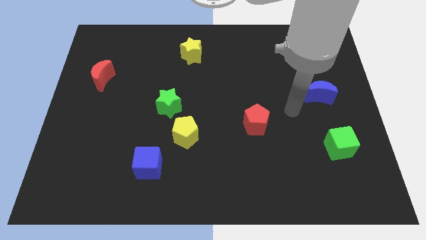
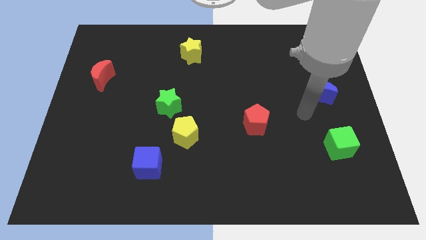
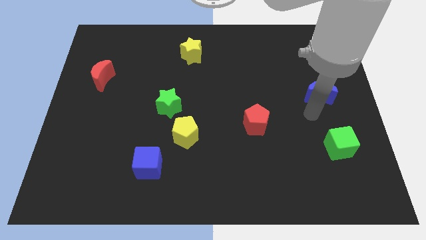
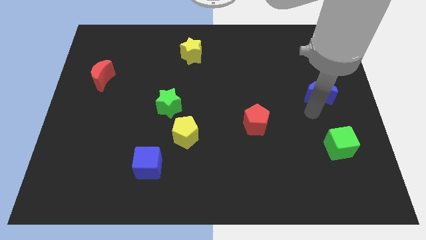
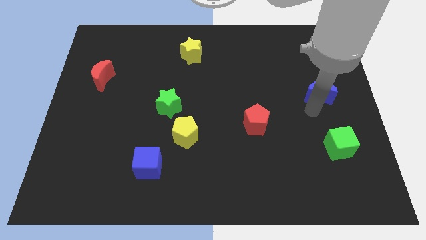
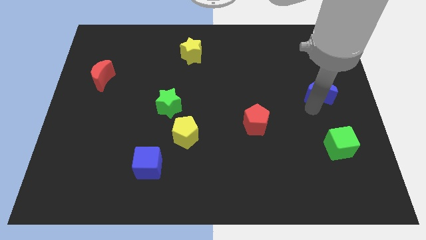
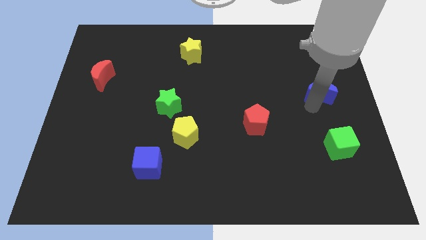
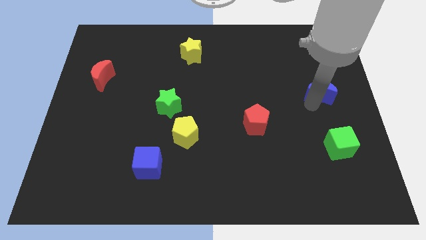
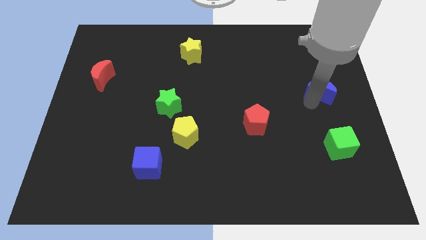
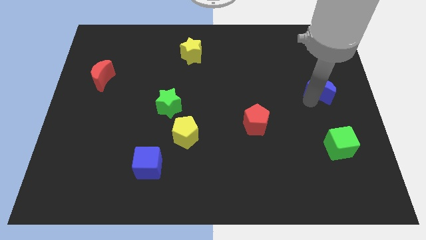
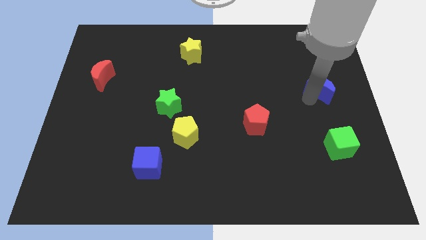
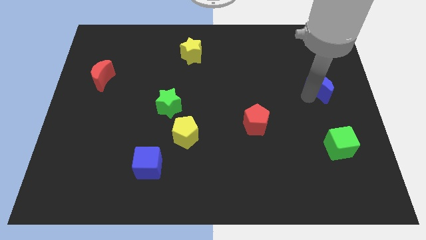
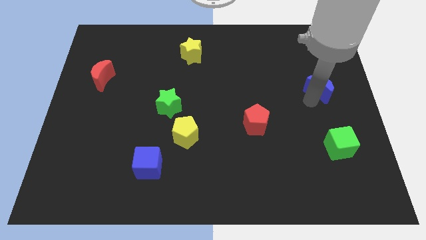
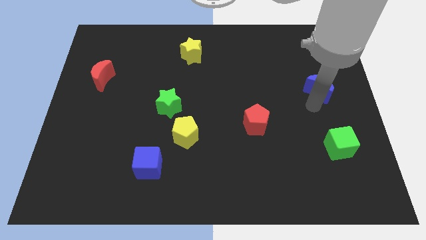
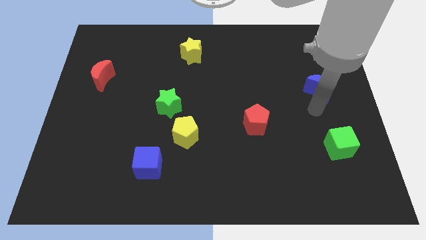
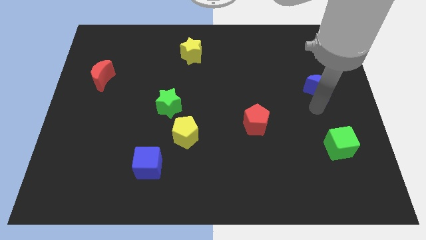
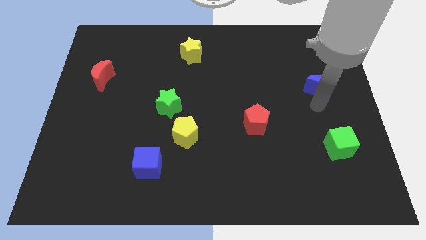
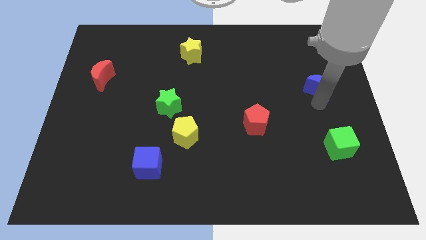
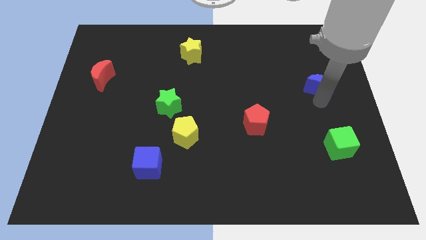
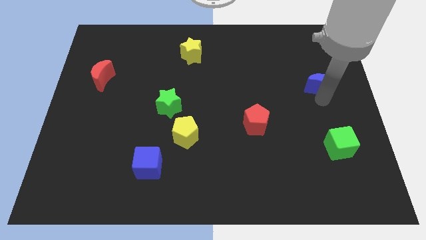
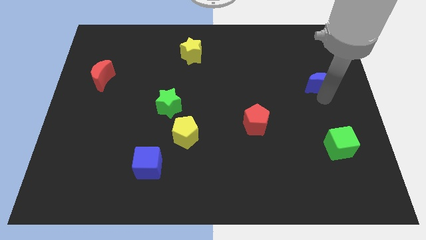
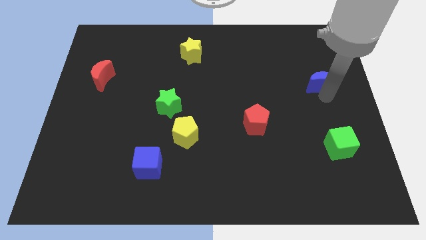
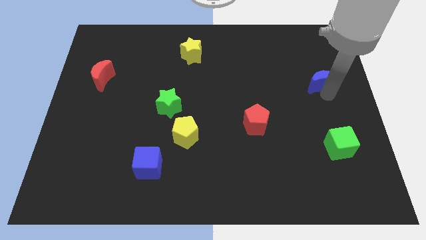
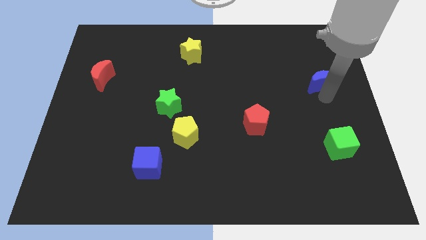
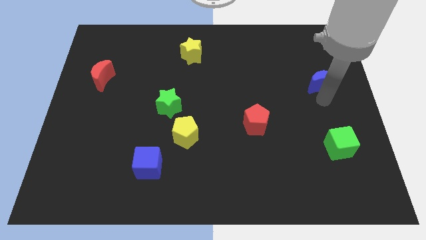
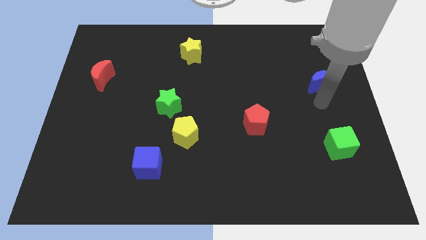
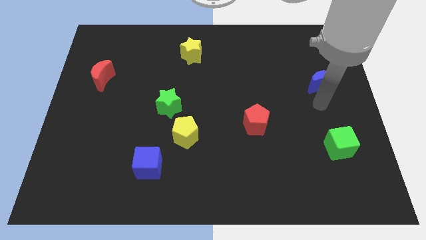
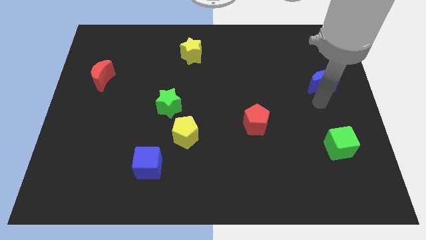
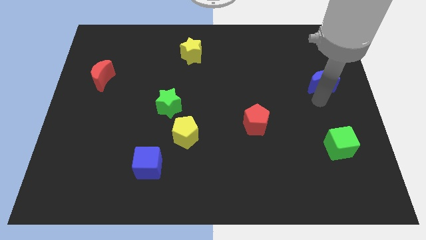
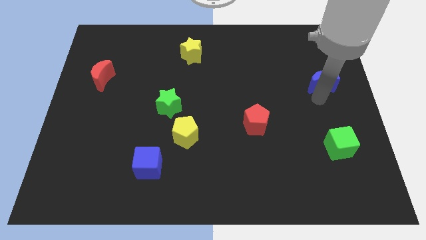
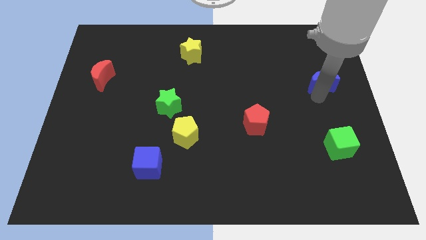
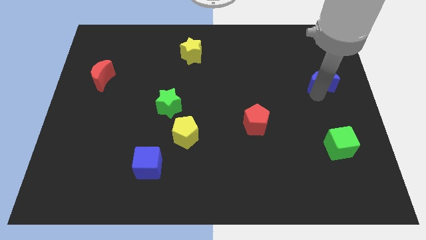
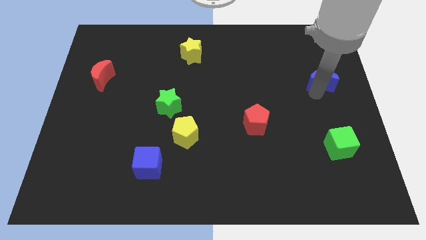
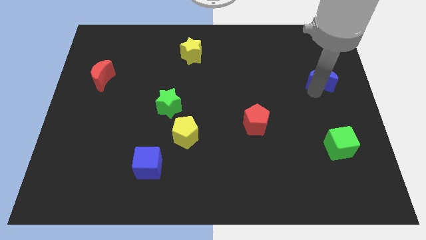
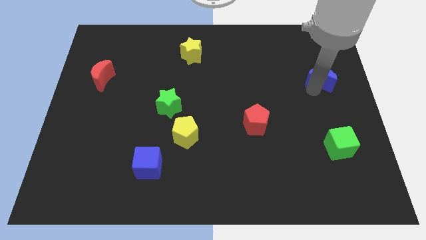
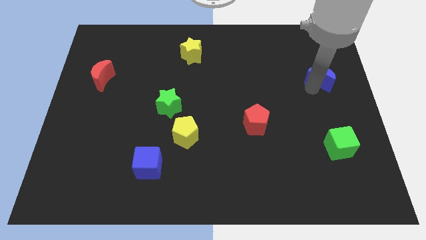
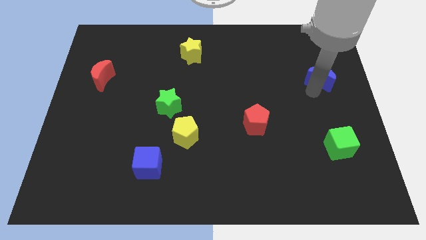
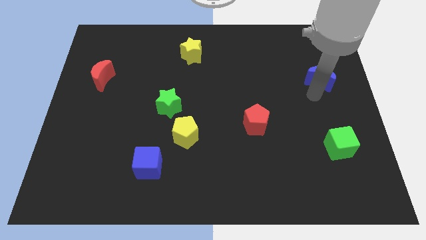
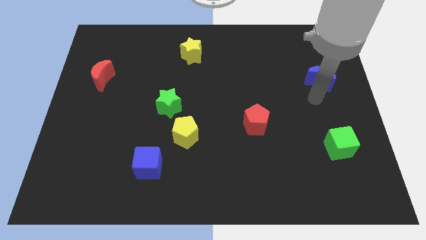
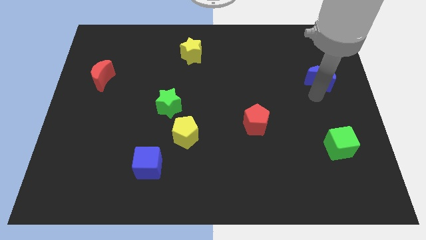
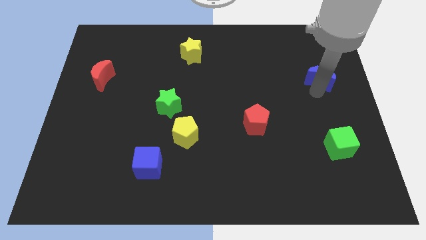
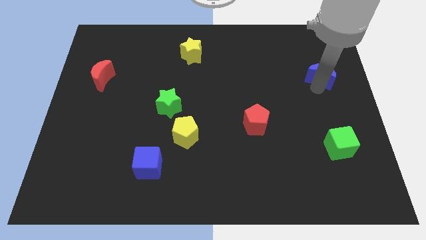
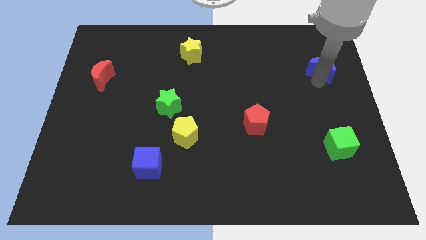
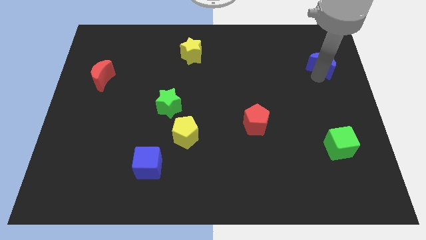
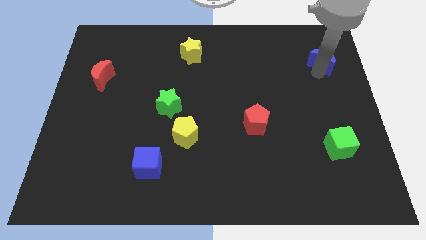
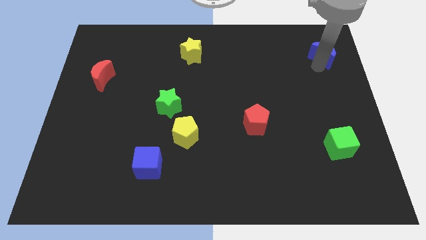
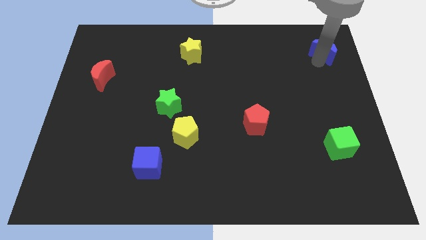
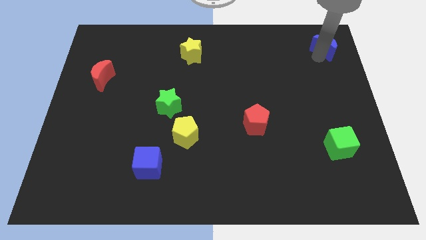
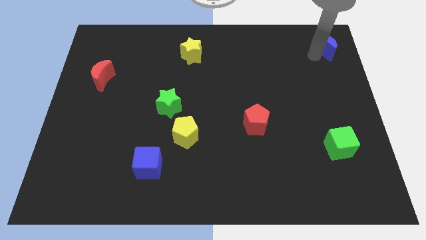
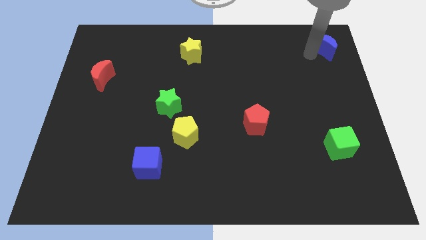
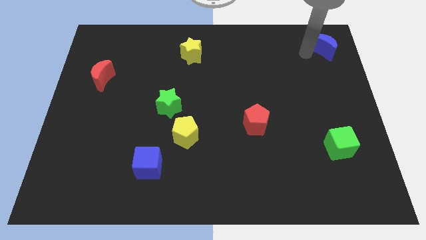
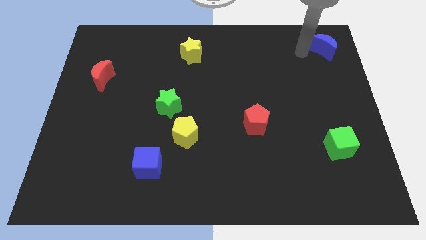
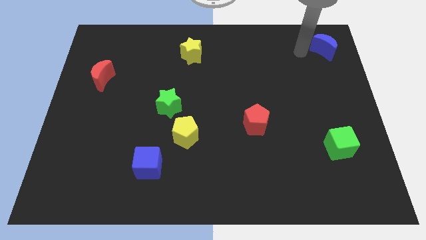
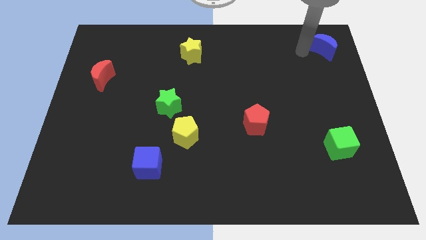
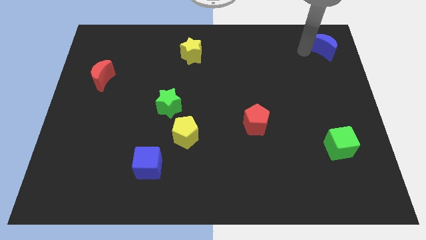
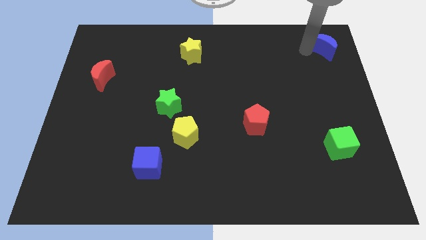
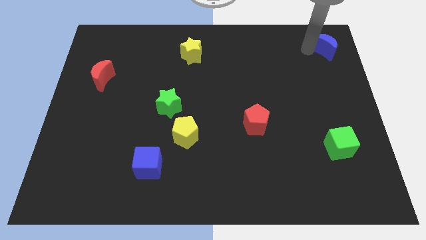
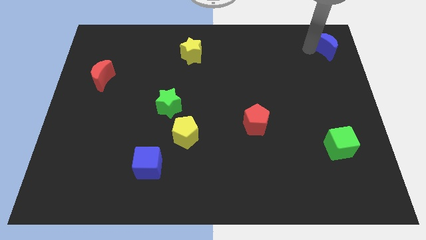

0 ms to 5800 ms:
move the blue moon to the top right corner
